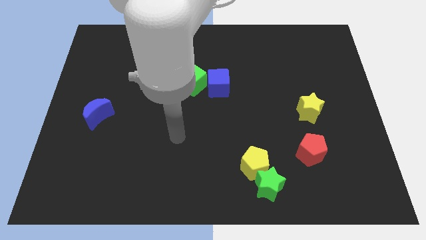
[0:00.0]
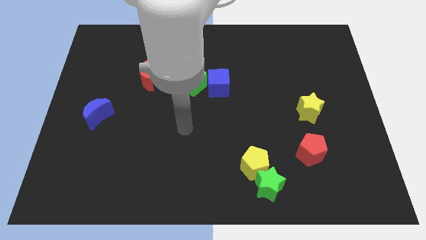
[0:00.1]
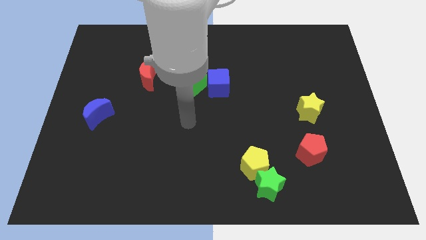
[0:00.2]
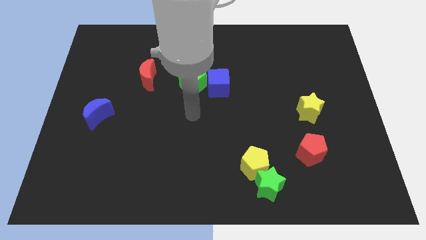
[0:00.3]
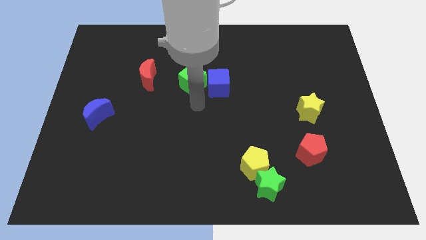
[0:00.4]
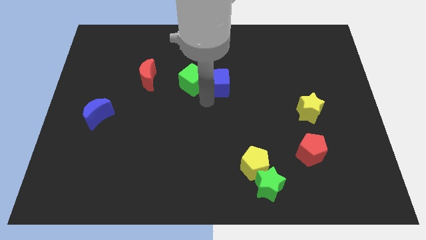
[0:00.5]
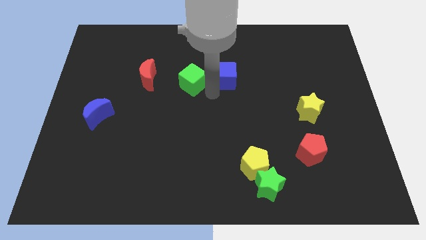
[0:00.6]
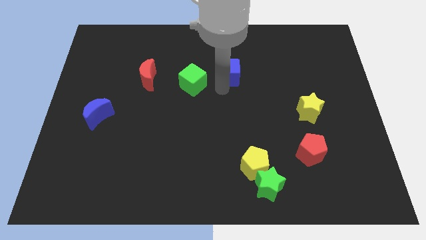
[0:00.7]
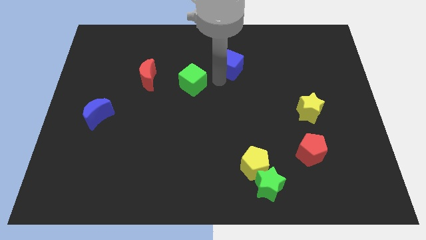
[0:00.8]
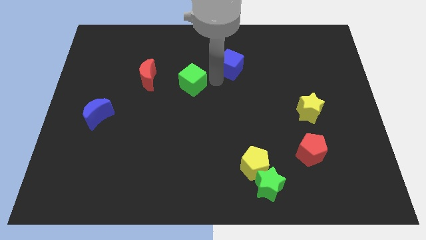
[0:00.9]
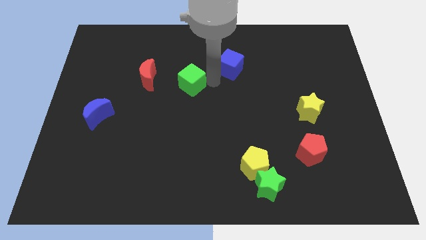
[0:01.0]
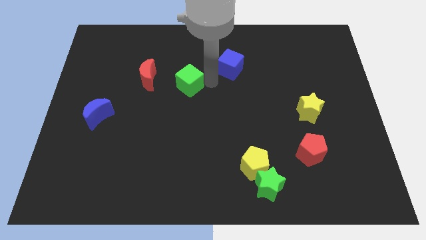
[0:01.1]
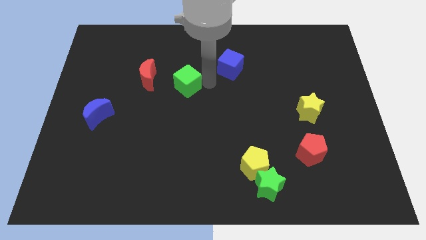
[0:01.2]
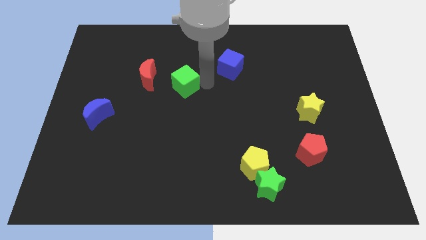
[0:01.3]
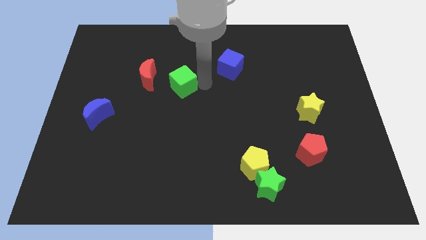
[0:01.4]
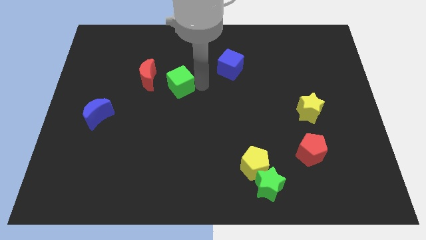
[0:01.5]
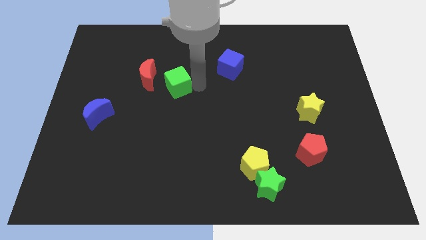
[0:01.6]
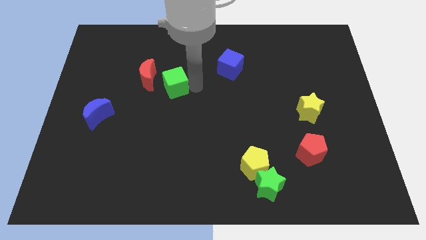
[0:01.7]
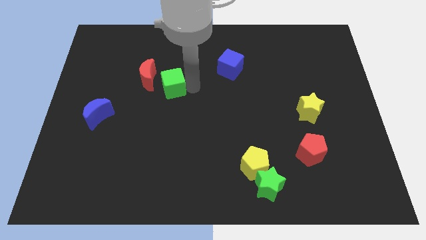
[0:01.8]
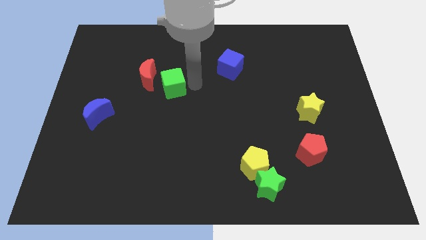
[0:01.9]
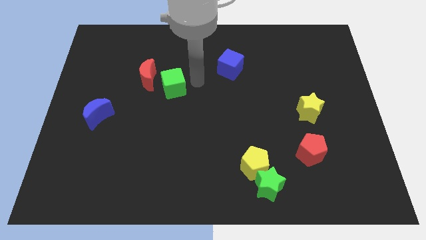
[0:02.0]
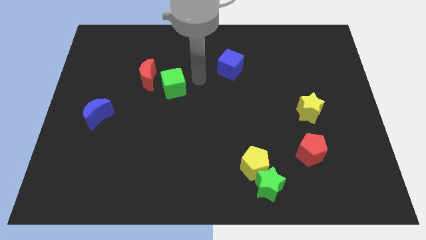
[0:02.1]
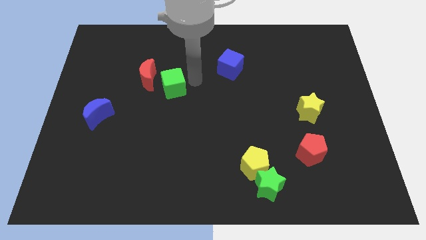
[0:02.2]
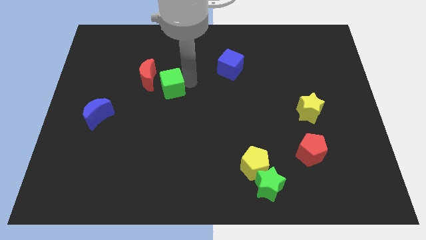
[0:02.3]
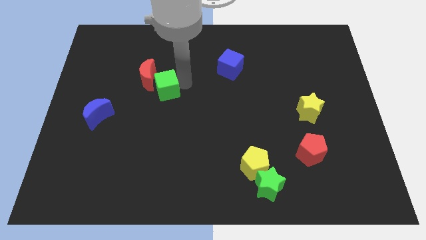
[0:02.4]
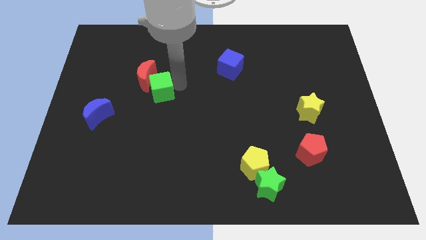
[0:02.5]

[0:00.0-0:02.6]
slightly push the green cube to the left

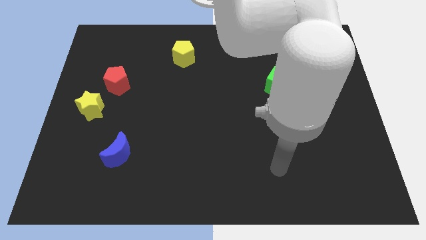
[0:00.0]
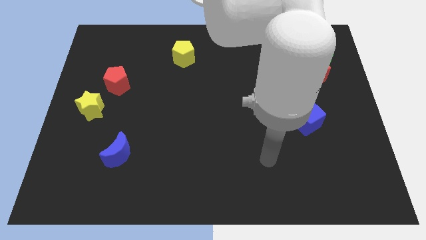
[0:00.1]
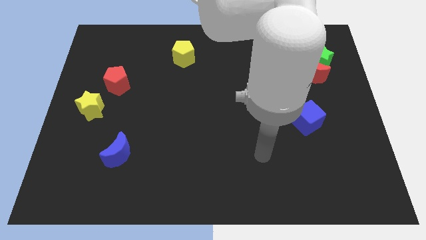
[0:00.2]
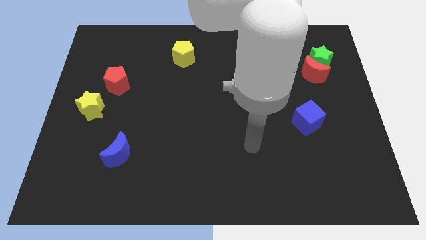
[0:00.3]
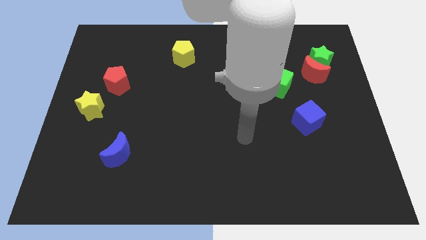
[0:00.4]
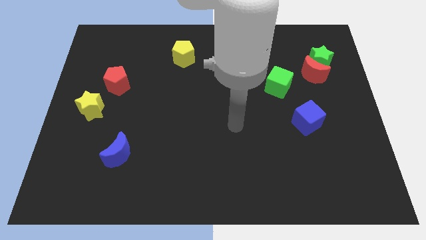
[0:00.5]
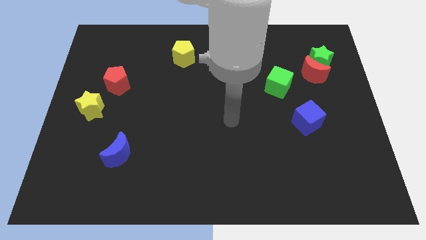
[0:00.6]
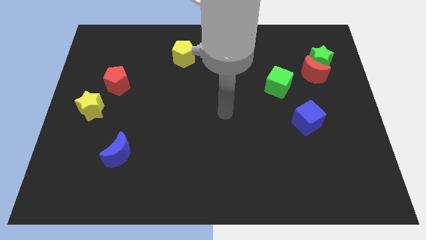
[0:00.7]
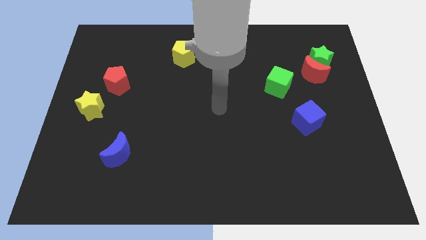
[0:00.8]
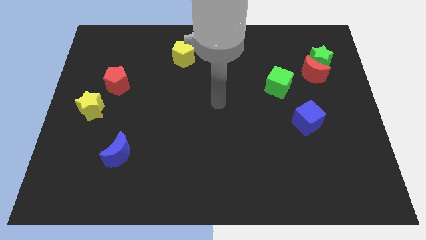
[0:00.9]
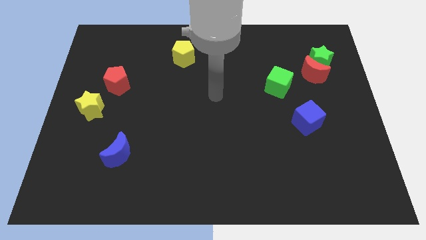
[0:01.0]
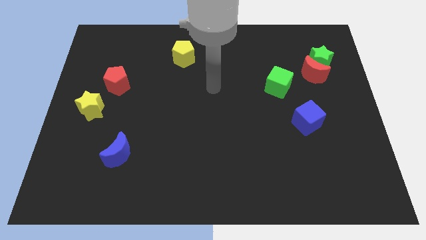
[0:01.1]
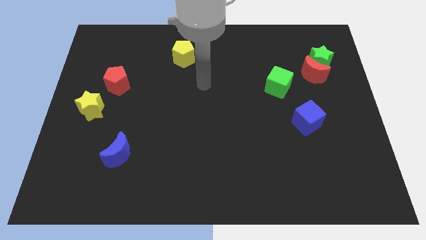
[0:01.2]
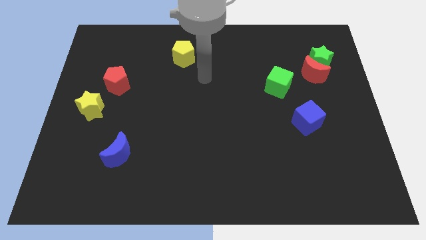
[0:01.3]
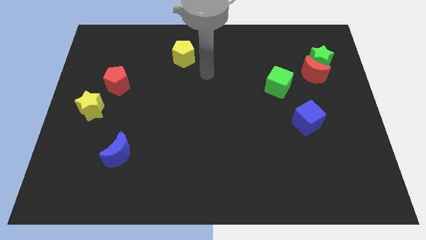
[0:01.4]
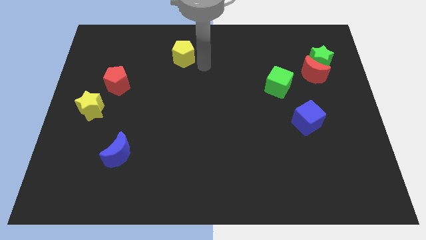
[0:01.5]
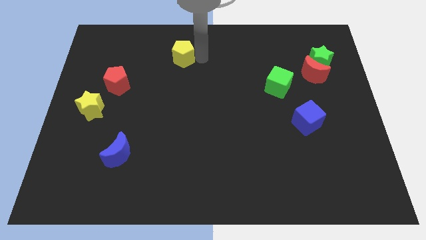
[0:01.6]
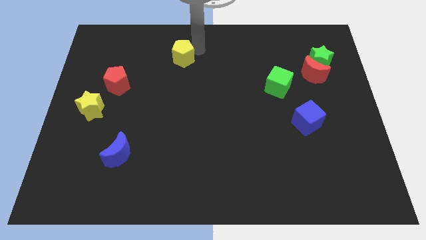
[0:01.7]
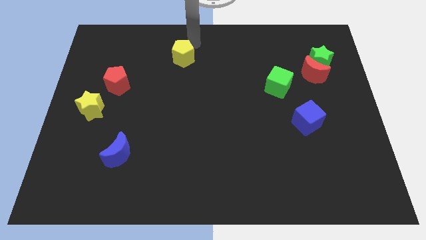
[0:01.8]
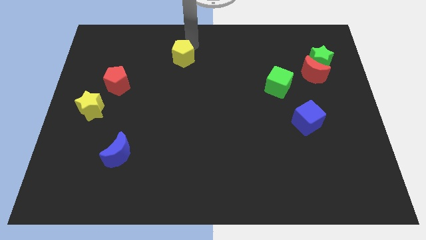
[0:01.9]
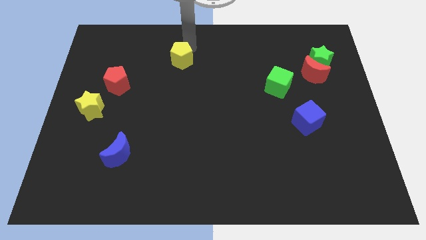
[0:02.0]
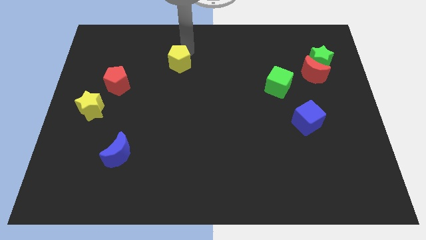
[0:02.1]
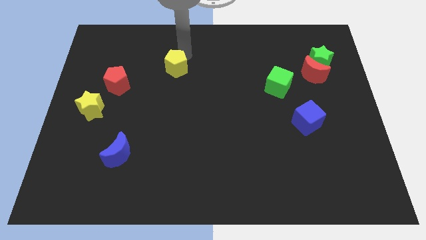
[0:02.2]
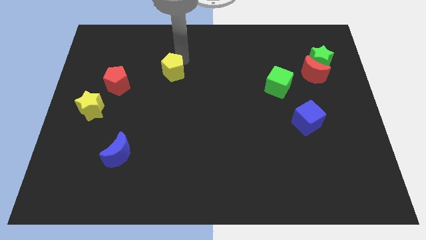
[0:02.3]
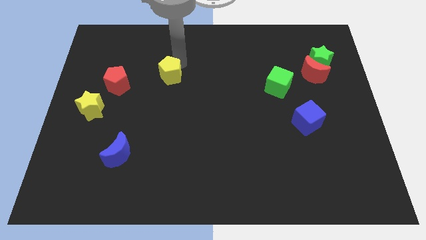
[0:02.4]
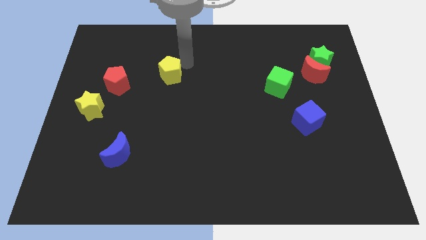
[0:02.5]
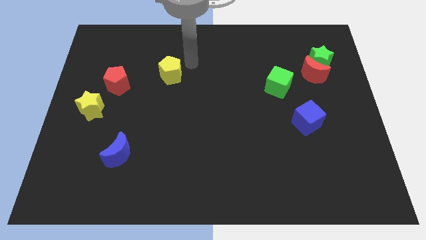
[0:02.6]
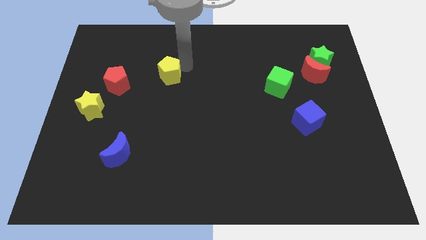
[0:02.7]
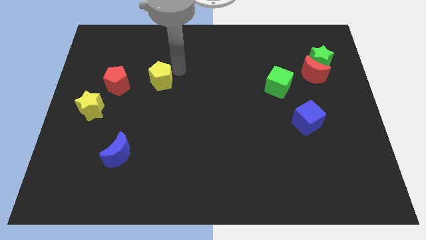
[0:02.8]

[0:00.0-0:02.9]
slide the yellow pentagon a little bit diagonally down and left

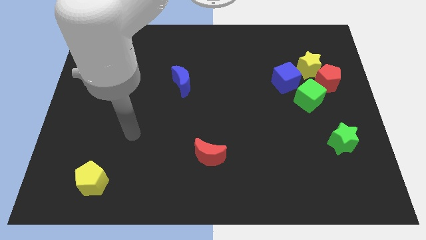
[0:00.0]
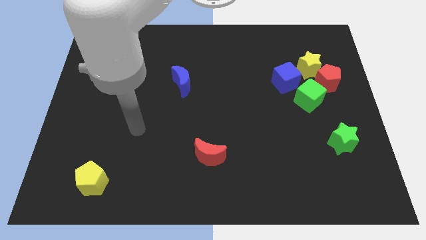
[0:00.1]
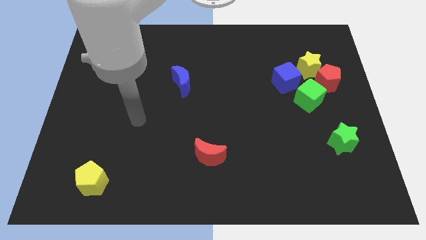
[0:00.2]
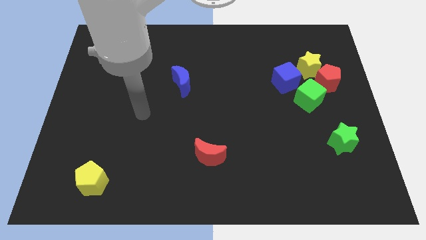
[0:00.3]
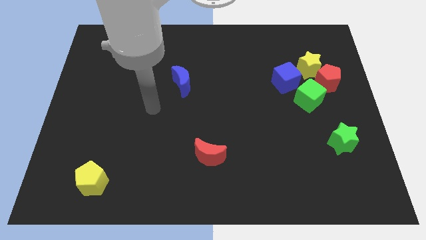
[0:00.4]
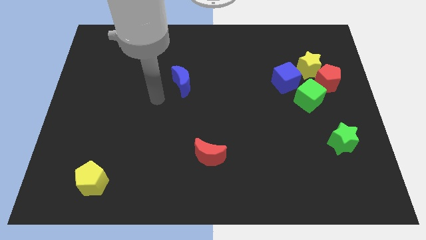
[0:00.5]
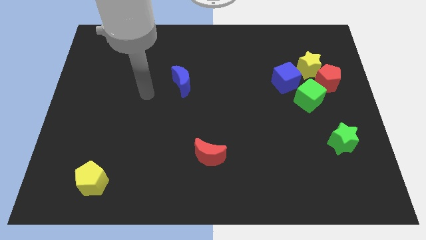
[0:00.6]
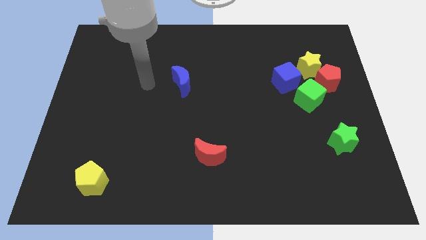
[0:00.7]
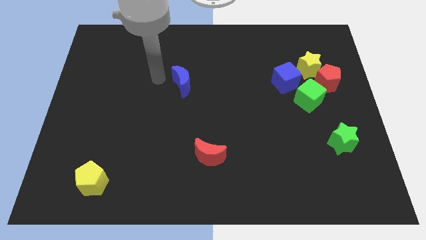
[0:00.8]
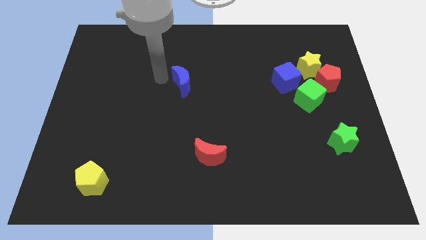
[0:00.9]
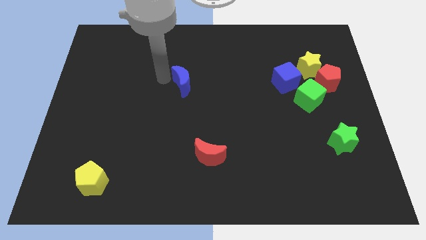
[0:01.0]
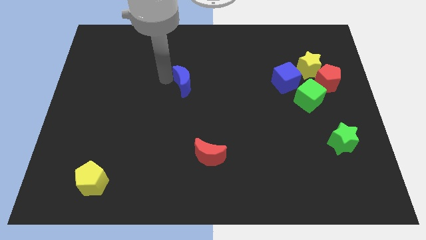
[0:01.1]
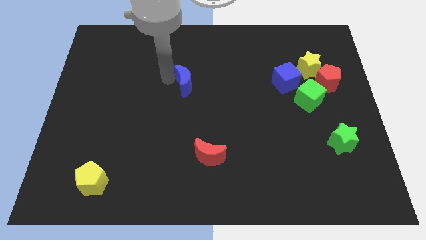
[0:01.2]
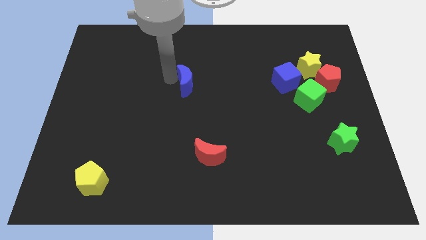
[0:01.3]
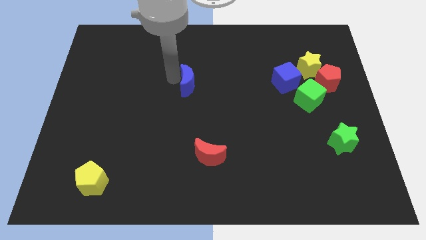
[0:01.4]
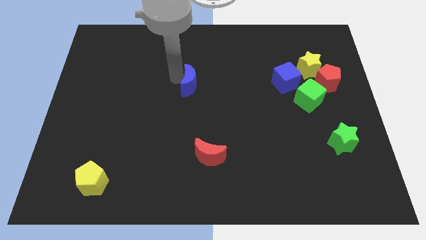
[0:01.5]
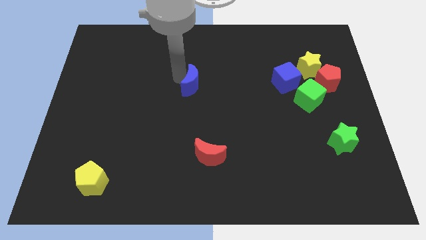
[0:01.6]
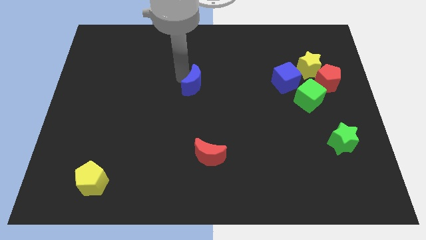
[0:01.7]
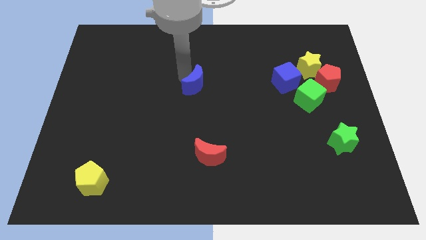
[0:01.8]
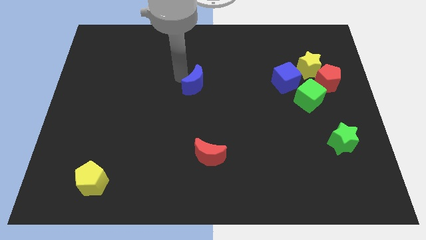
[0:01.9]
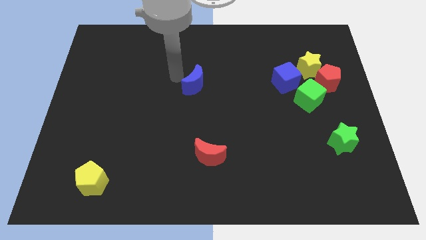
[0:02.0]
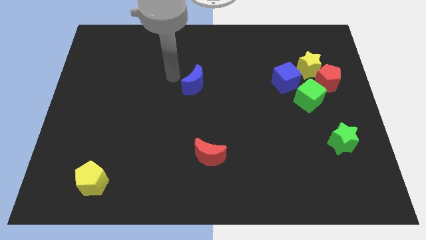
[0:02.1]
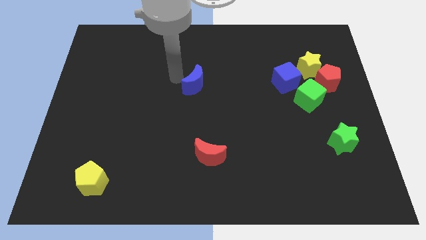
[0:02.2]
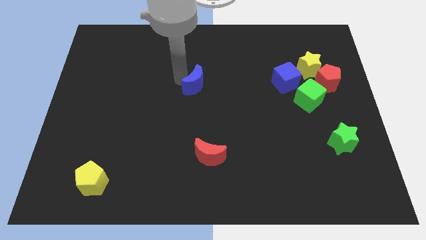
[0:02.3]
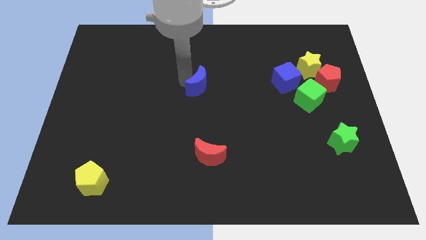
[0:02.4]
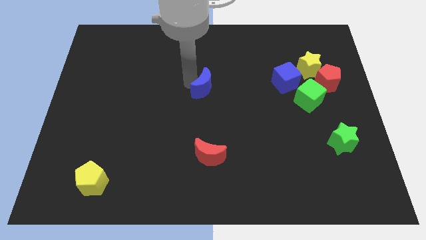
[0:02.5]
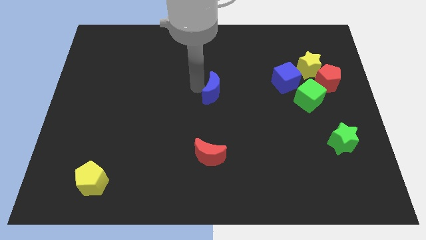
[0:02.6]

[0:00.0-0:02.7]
move the blue moon right slightly
